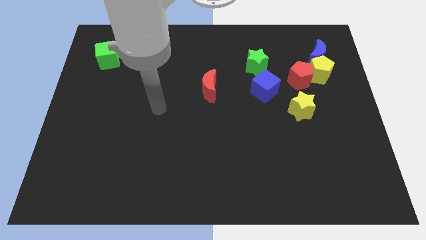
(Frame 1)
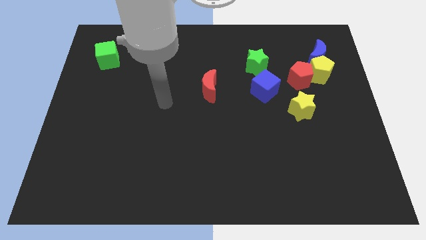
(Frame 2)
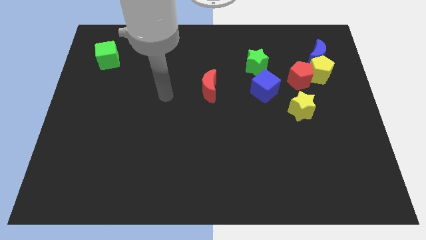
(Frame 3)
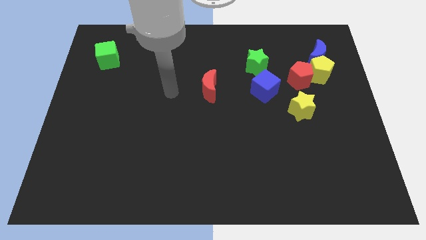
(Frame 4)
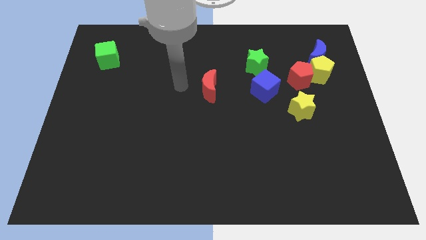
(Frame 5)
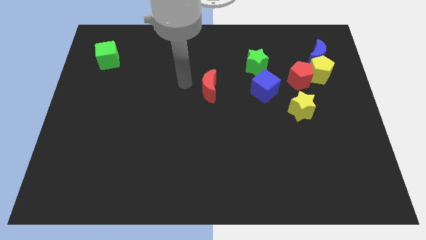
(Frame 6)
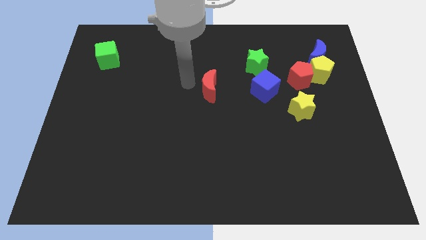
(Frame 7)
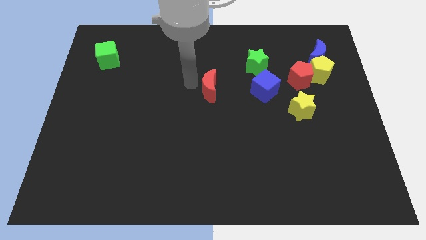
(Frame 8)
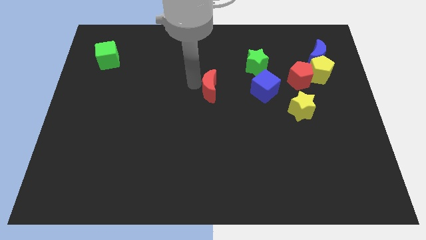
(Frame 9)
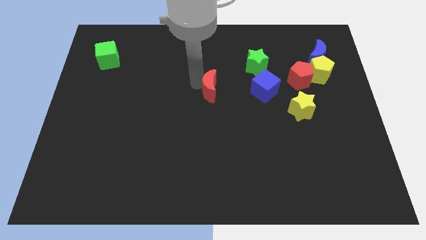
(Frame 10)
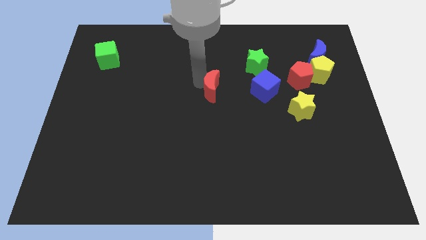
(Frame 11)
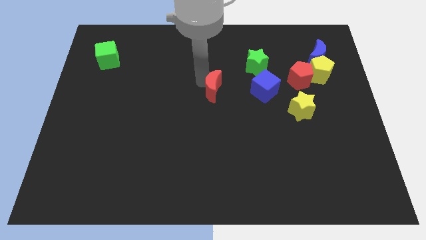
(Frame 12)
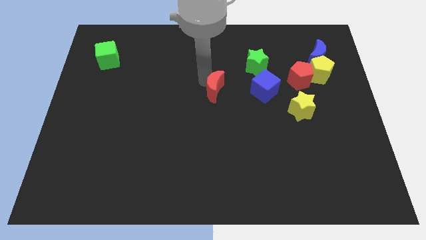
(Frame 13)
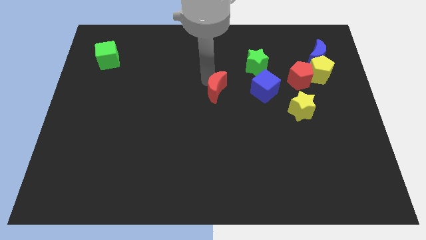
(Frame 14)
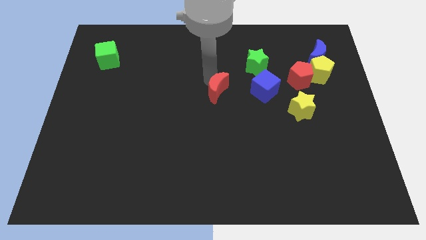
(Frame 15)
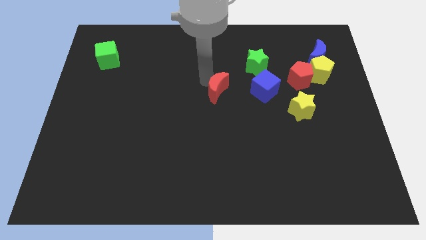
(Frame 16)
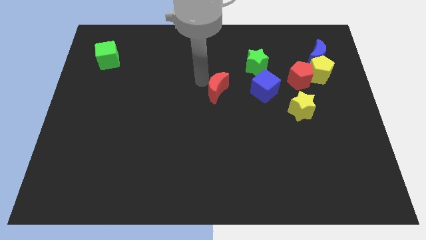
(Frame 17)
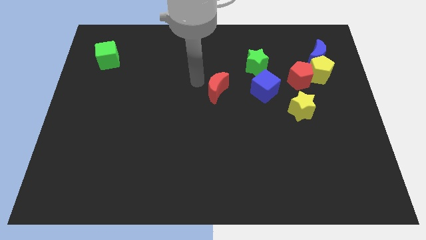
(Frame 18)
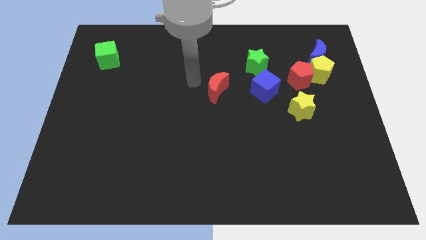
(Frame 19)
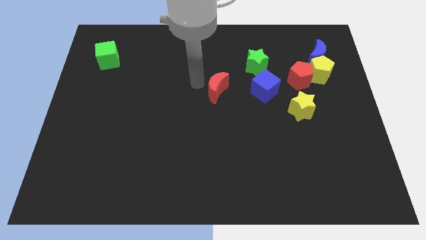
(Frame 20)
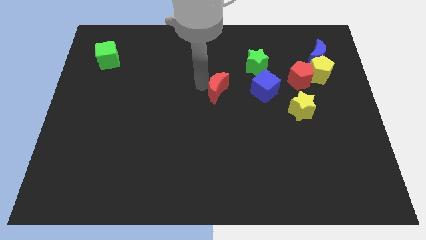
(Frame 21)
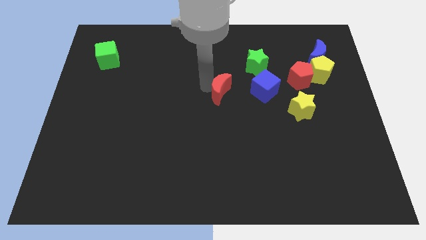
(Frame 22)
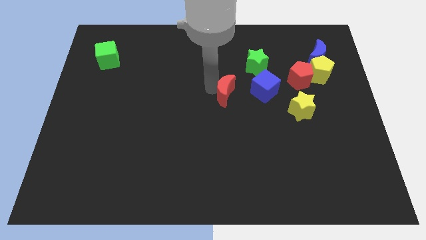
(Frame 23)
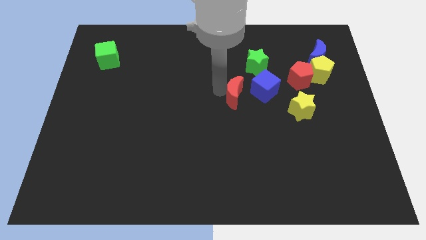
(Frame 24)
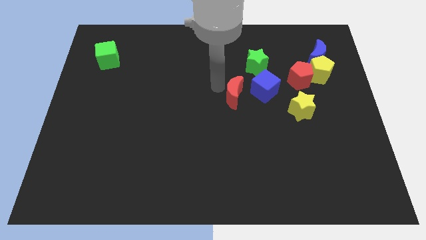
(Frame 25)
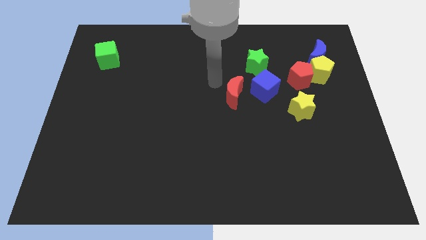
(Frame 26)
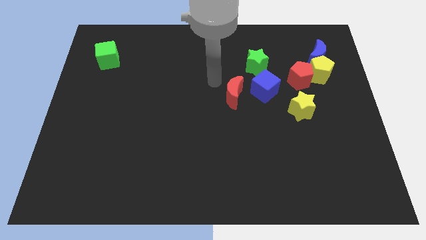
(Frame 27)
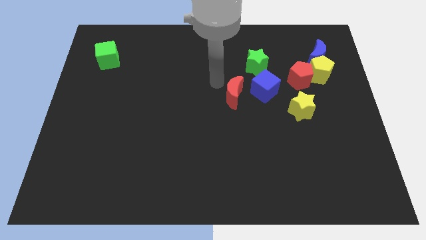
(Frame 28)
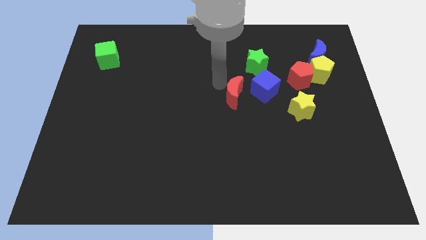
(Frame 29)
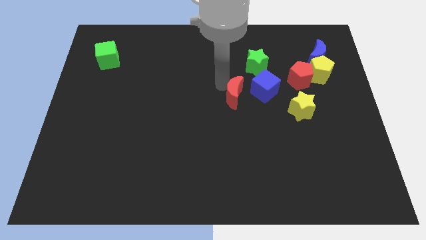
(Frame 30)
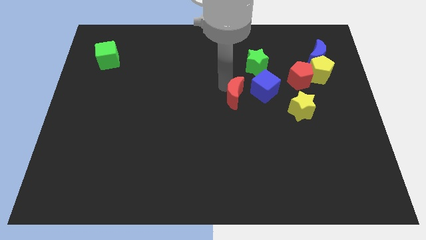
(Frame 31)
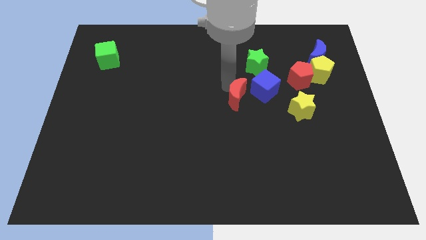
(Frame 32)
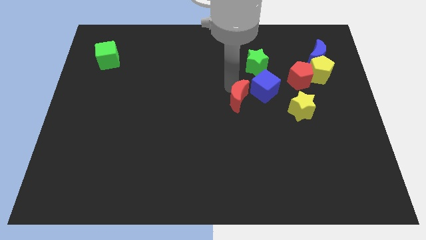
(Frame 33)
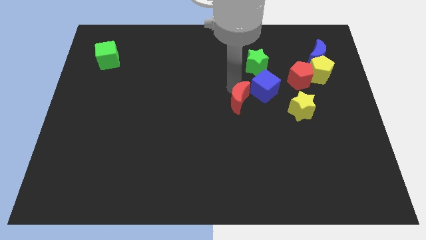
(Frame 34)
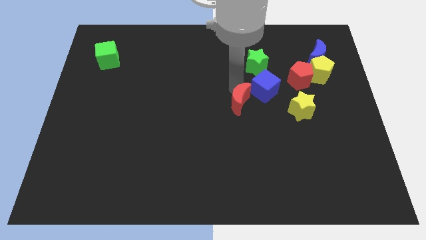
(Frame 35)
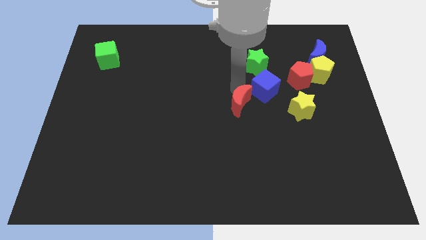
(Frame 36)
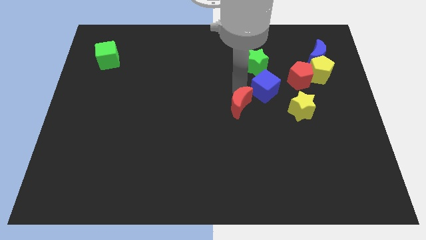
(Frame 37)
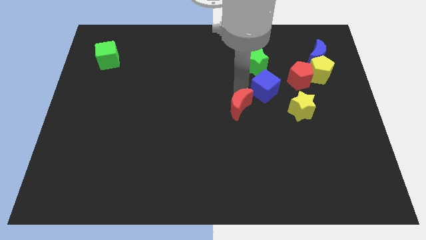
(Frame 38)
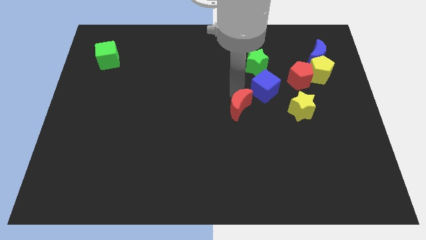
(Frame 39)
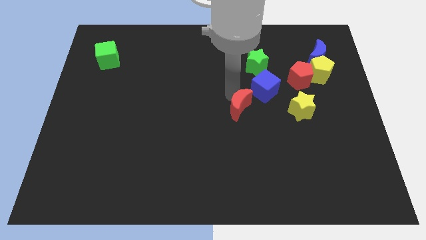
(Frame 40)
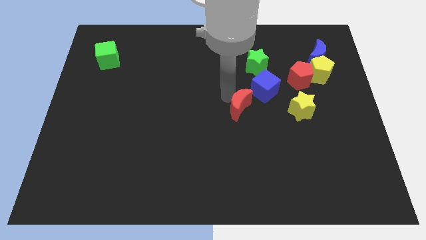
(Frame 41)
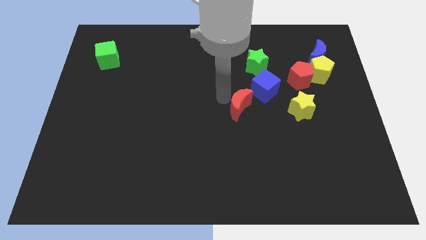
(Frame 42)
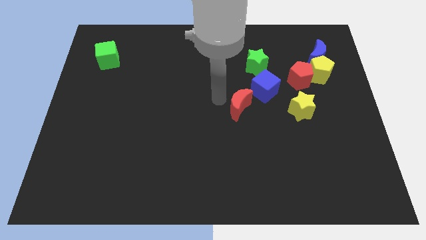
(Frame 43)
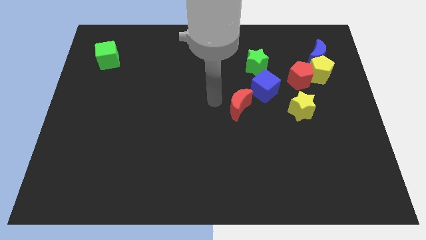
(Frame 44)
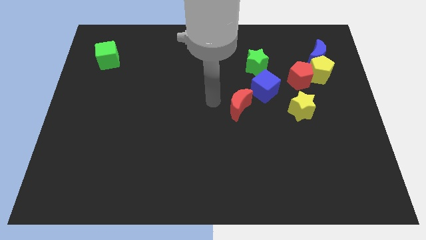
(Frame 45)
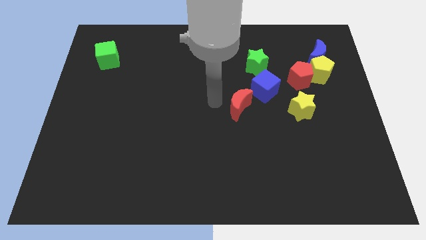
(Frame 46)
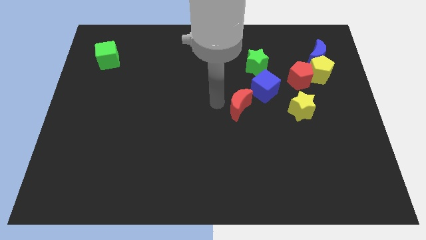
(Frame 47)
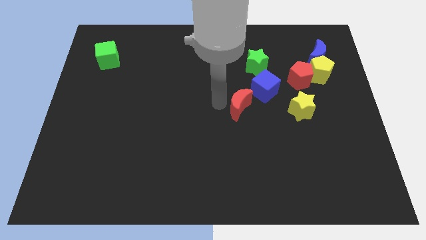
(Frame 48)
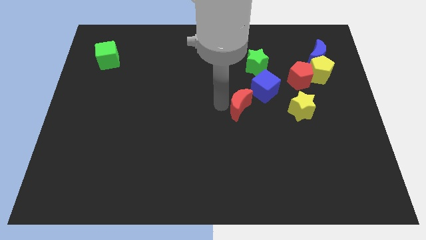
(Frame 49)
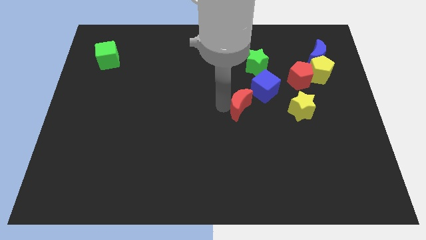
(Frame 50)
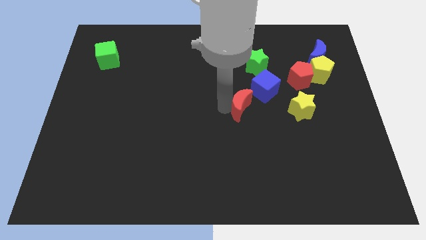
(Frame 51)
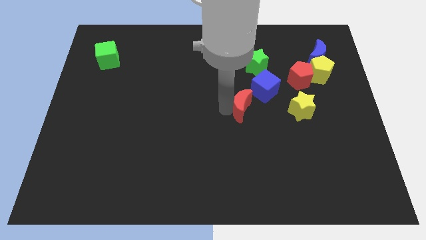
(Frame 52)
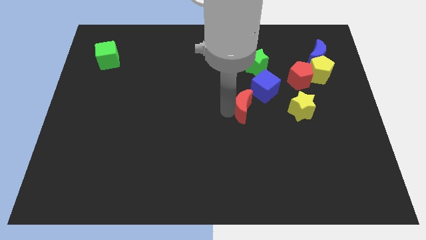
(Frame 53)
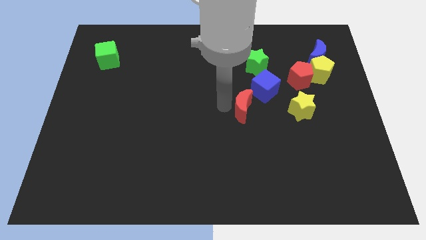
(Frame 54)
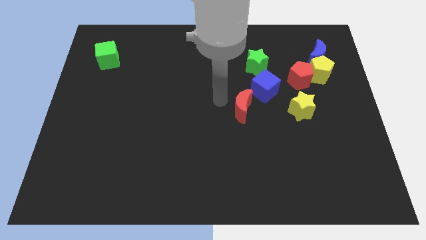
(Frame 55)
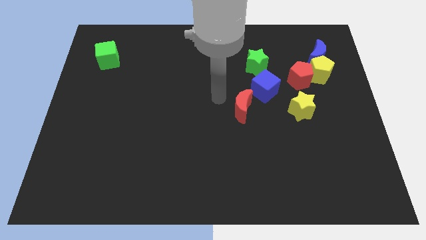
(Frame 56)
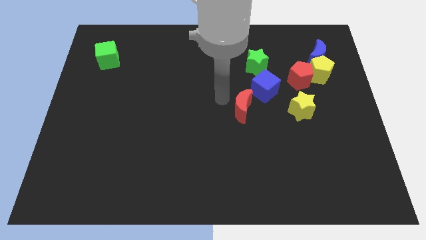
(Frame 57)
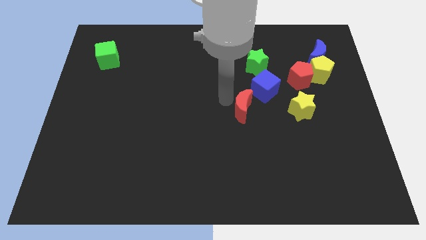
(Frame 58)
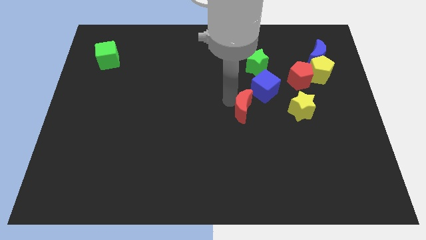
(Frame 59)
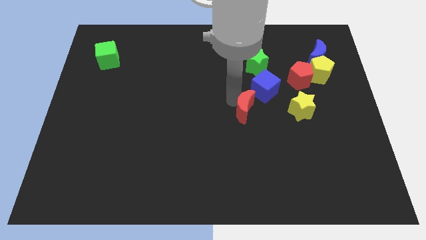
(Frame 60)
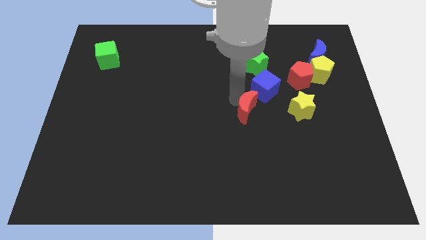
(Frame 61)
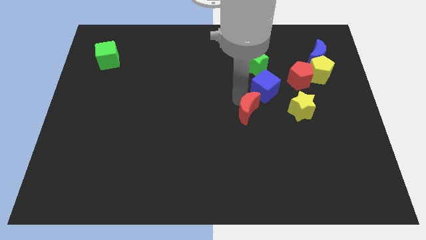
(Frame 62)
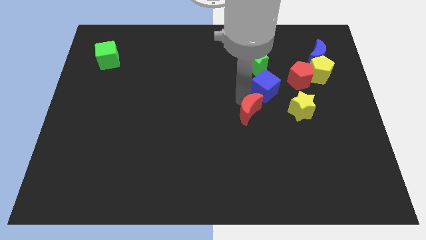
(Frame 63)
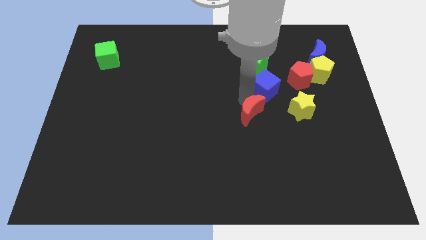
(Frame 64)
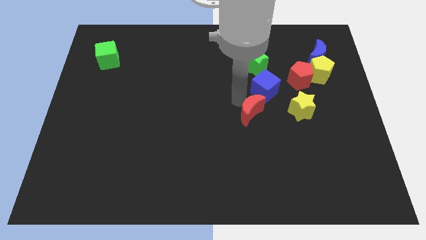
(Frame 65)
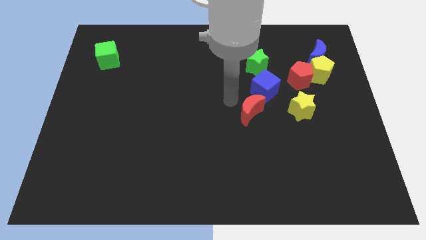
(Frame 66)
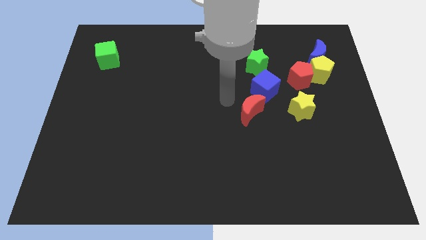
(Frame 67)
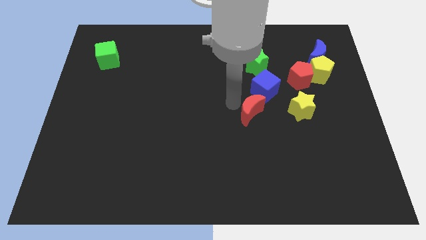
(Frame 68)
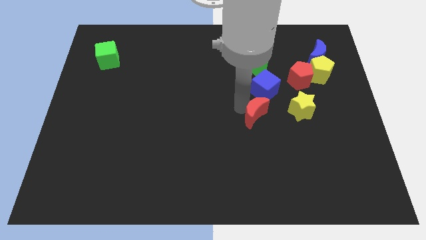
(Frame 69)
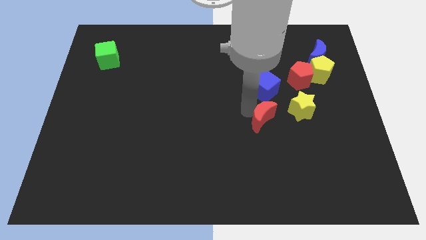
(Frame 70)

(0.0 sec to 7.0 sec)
push the red moon to the bottom left side of the yellow star
